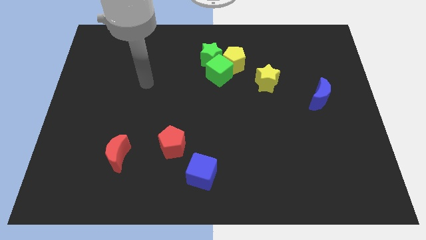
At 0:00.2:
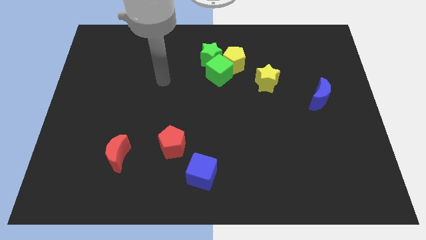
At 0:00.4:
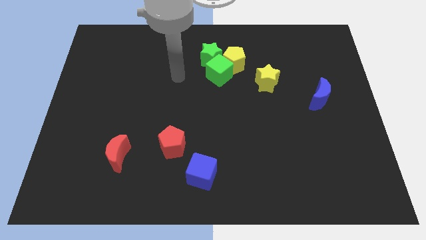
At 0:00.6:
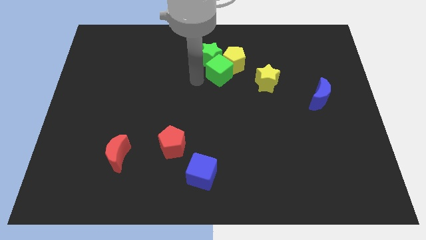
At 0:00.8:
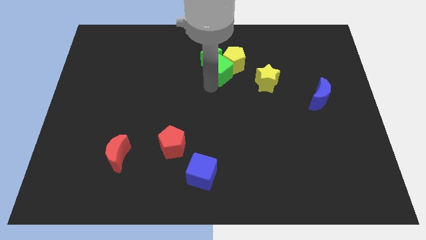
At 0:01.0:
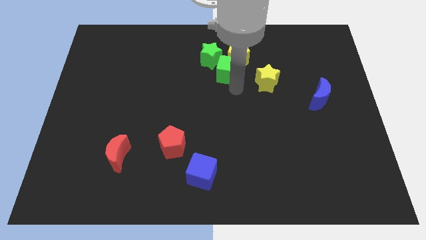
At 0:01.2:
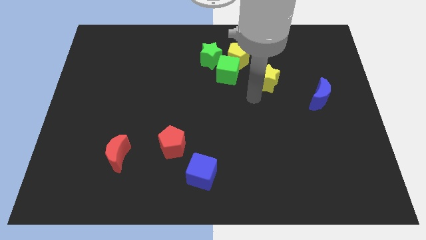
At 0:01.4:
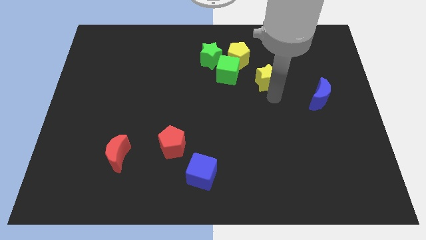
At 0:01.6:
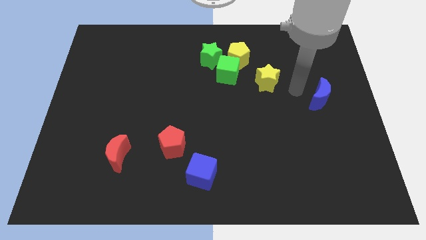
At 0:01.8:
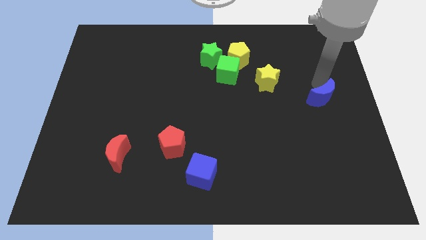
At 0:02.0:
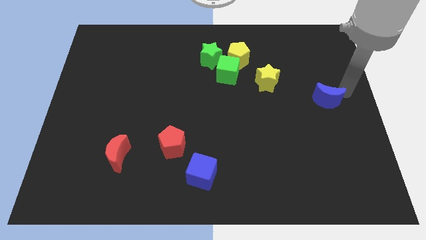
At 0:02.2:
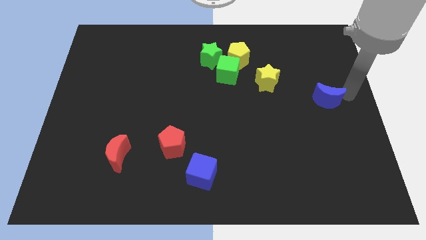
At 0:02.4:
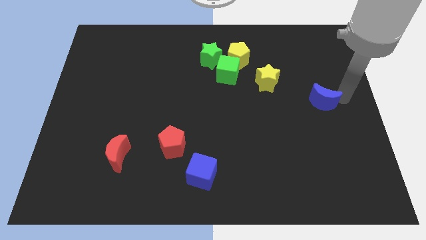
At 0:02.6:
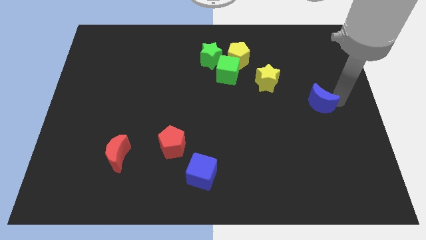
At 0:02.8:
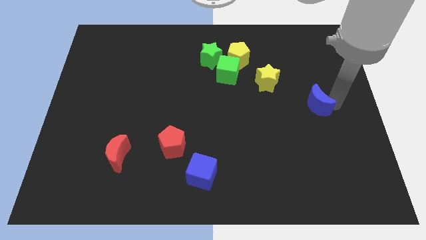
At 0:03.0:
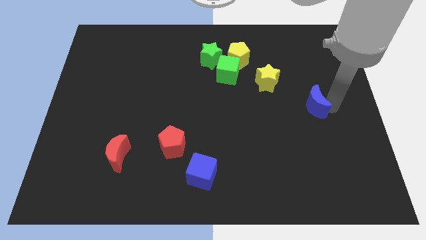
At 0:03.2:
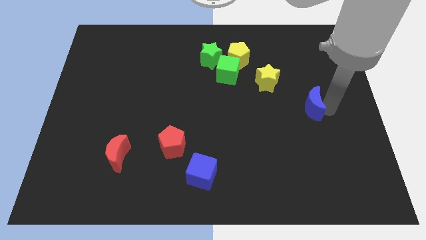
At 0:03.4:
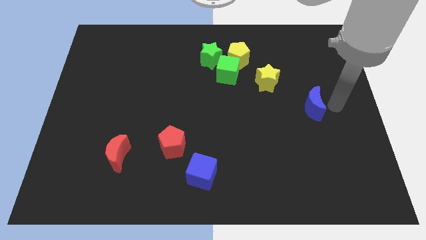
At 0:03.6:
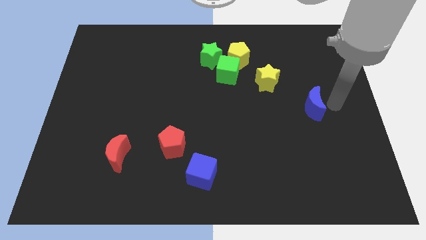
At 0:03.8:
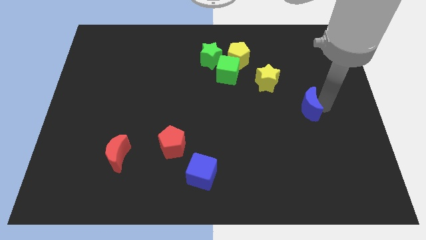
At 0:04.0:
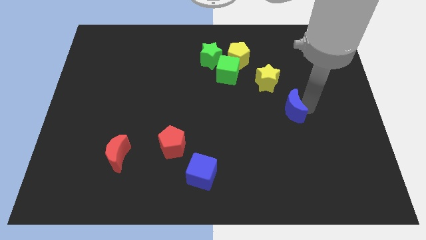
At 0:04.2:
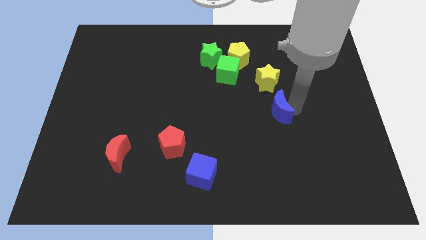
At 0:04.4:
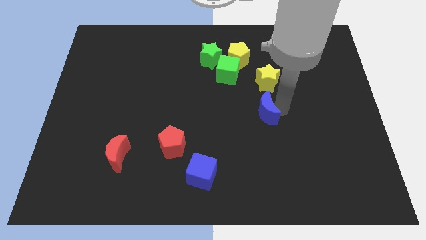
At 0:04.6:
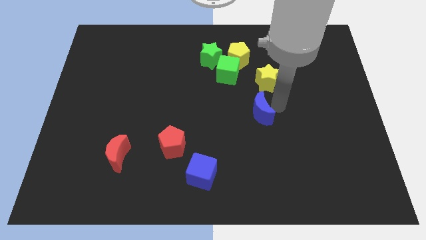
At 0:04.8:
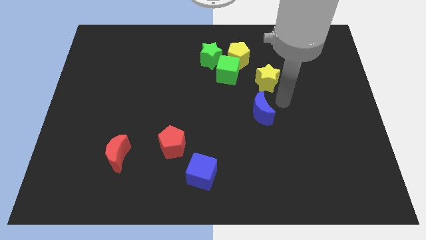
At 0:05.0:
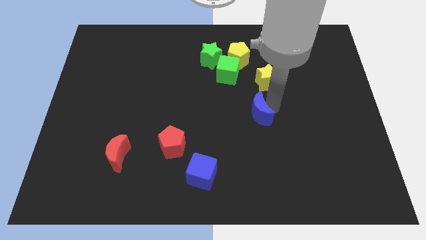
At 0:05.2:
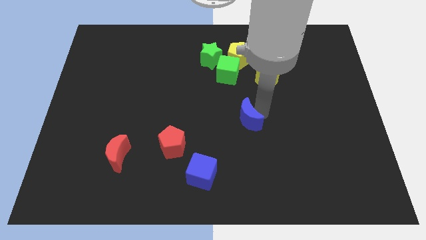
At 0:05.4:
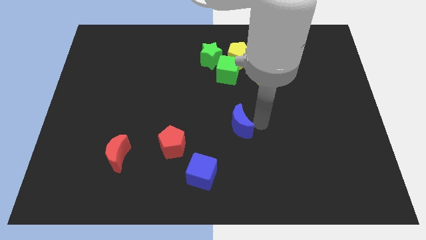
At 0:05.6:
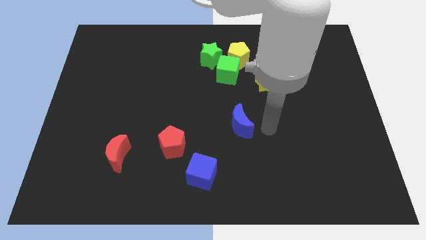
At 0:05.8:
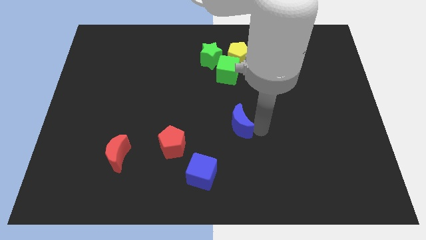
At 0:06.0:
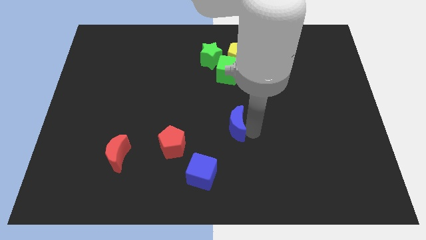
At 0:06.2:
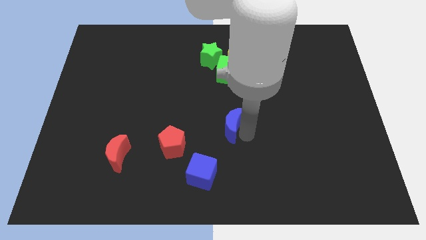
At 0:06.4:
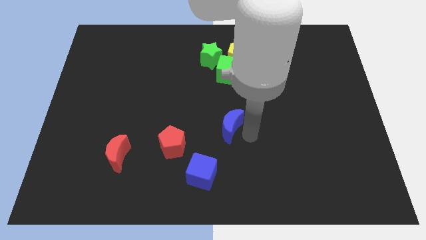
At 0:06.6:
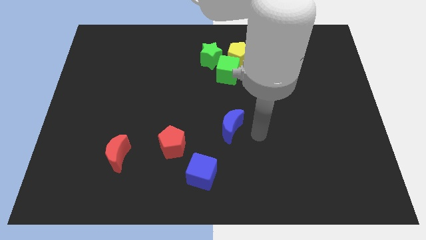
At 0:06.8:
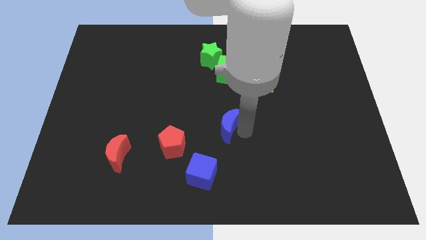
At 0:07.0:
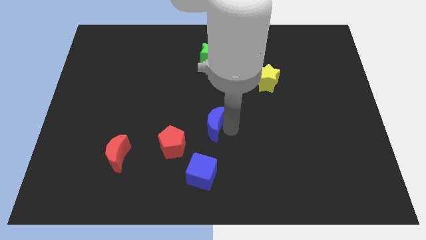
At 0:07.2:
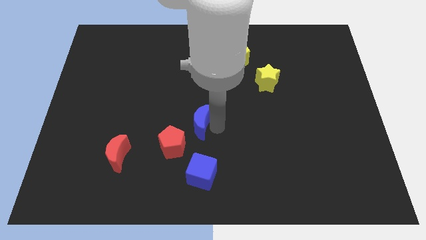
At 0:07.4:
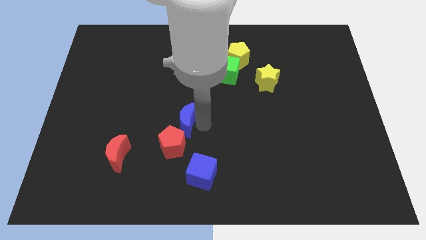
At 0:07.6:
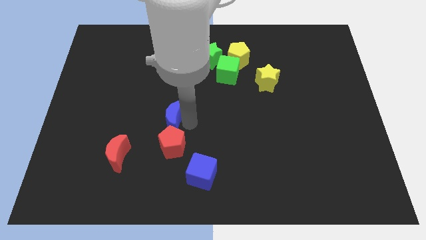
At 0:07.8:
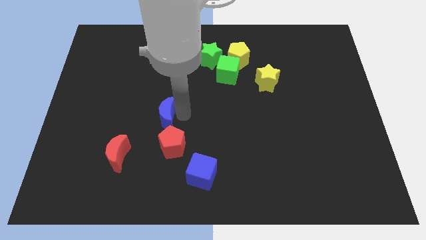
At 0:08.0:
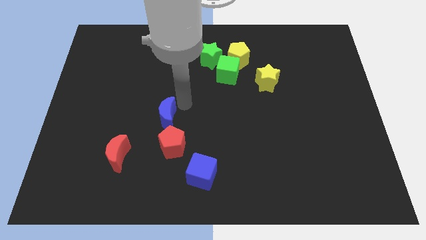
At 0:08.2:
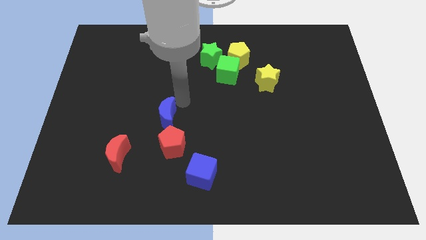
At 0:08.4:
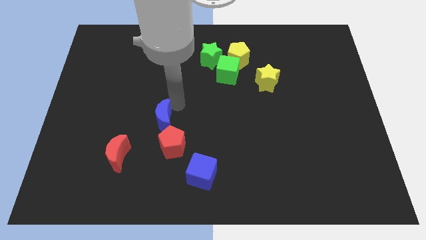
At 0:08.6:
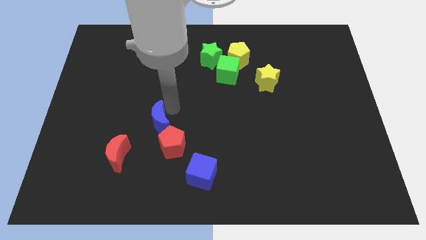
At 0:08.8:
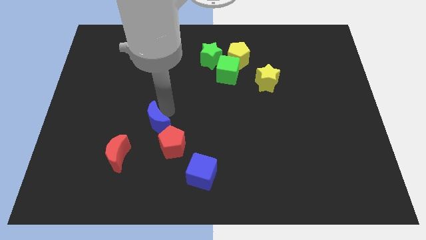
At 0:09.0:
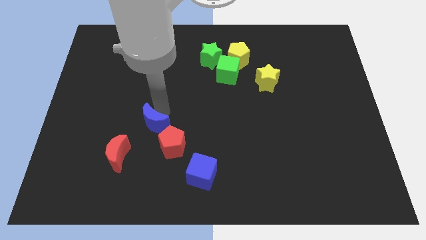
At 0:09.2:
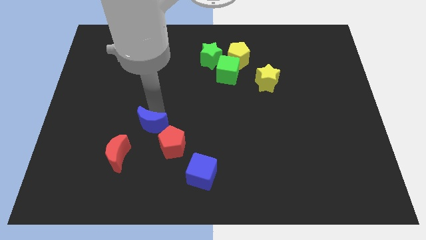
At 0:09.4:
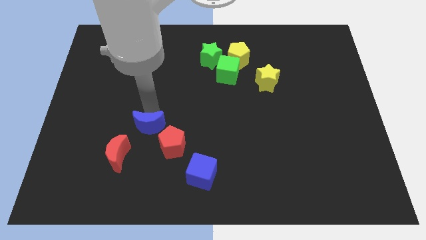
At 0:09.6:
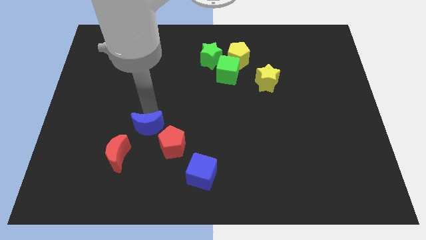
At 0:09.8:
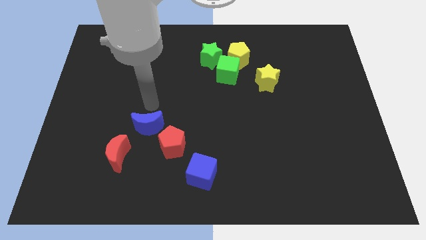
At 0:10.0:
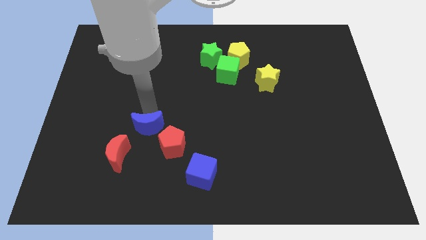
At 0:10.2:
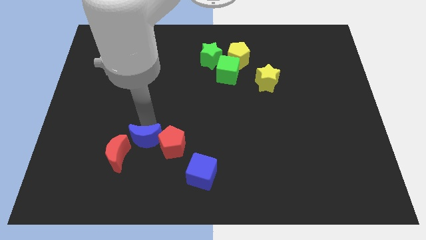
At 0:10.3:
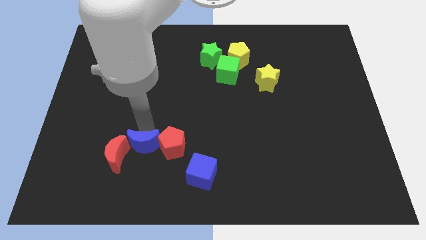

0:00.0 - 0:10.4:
put the blue moon diagonally down and to the left of the red pentagon

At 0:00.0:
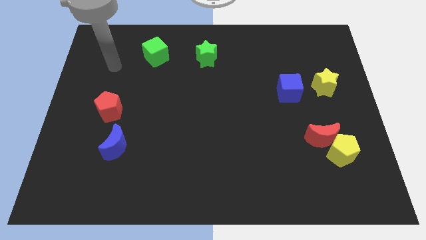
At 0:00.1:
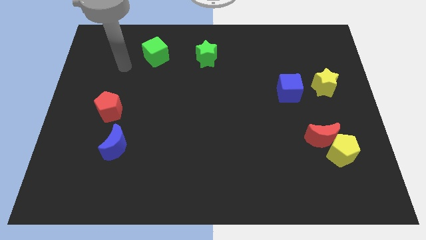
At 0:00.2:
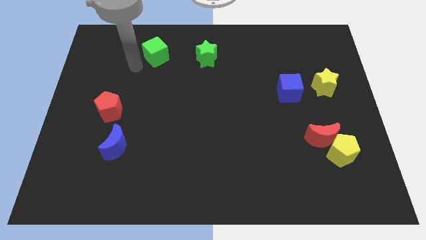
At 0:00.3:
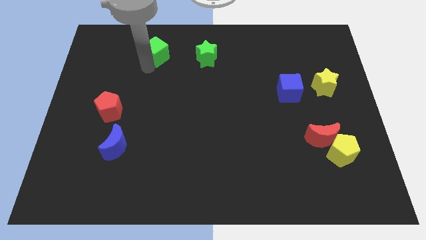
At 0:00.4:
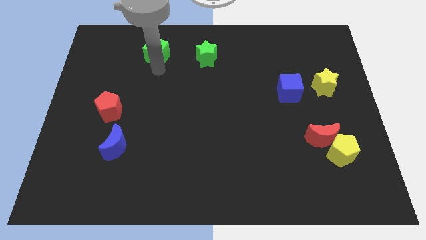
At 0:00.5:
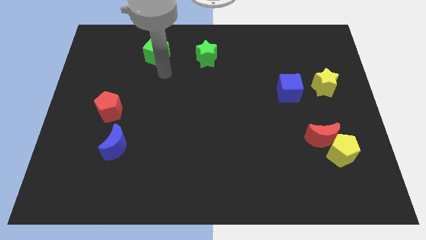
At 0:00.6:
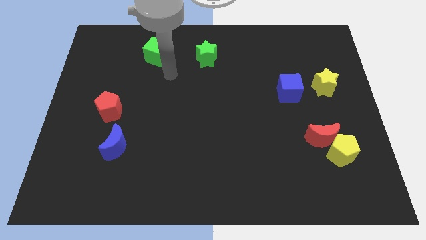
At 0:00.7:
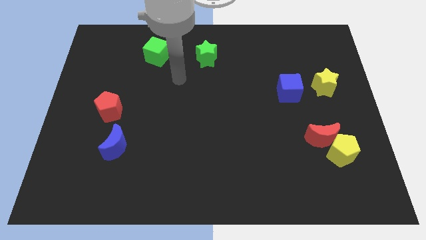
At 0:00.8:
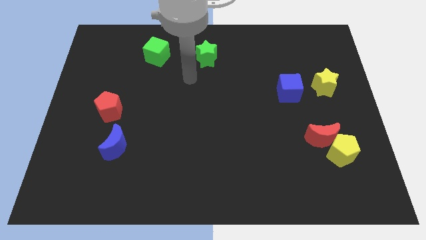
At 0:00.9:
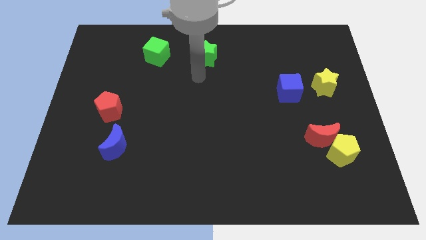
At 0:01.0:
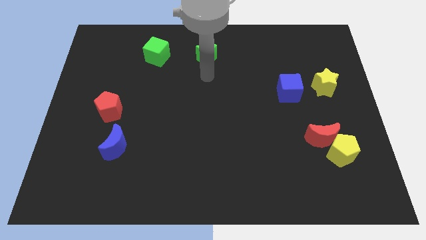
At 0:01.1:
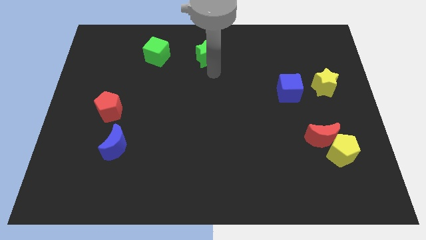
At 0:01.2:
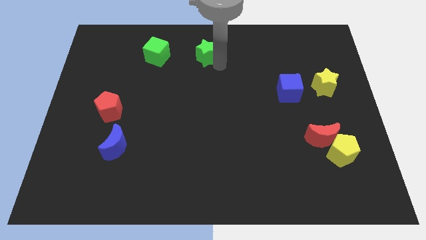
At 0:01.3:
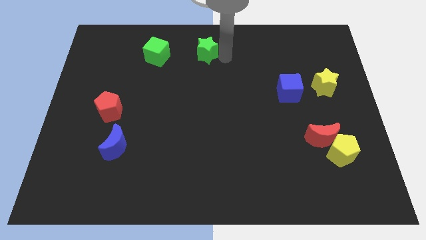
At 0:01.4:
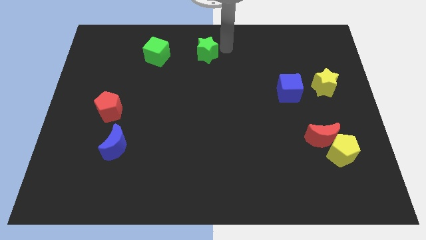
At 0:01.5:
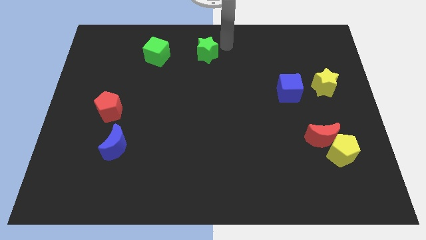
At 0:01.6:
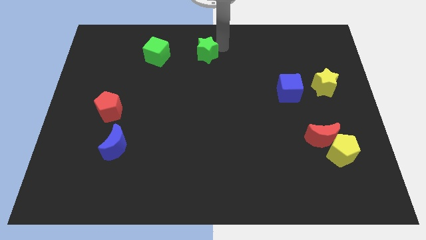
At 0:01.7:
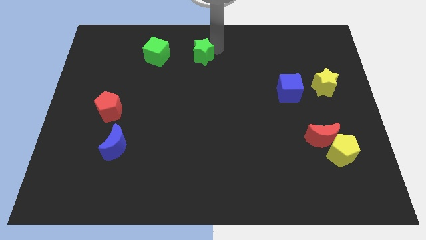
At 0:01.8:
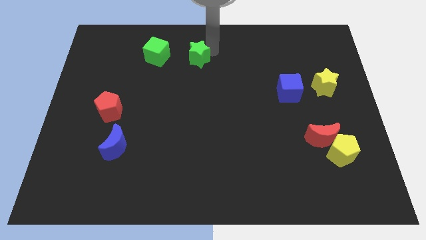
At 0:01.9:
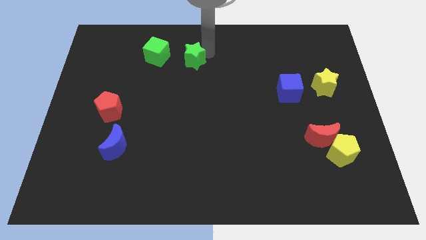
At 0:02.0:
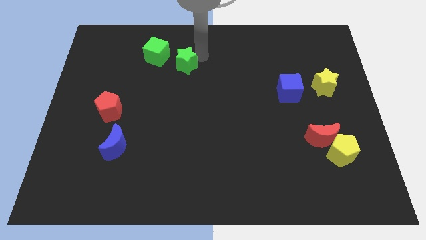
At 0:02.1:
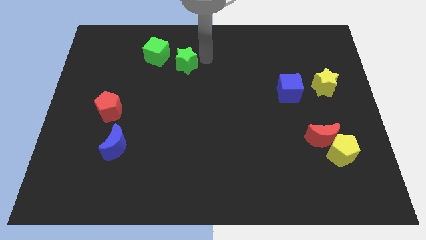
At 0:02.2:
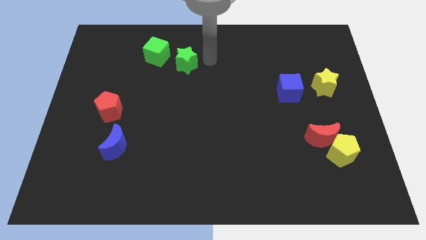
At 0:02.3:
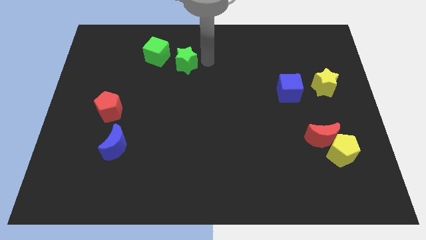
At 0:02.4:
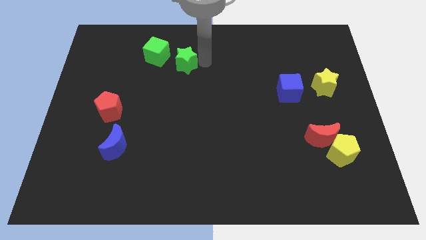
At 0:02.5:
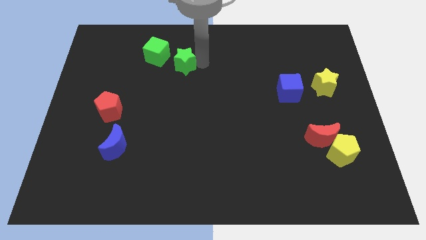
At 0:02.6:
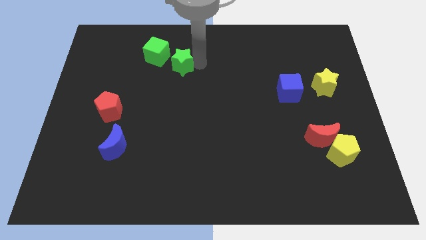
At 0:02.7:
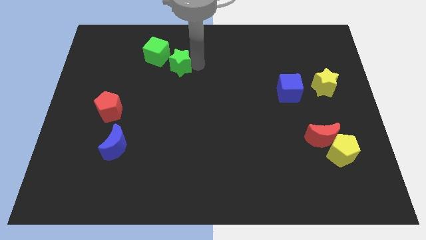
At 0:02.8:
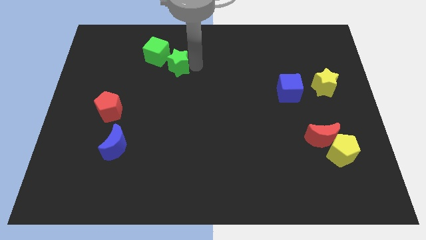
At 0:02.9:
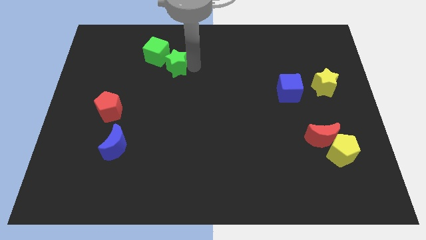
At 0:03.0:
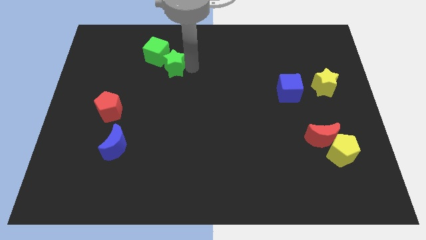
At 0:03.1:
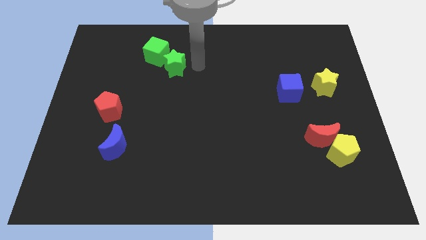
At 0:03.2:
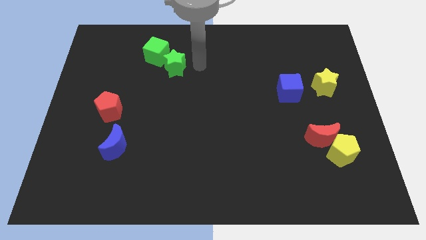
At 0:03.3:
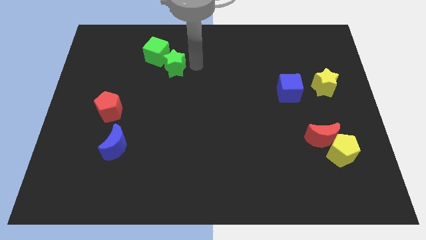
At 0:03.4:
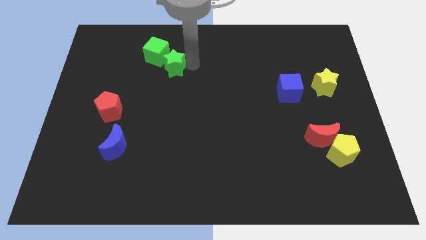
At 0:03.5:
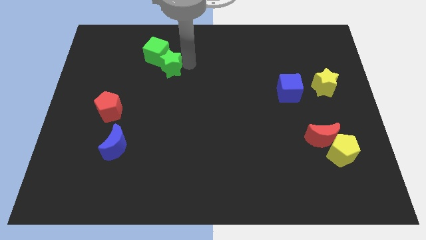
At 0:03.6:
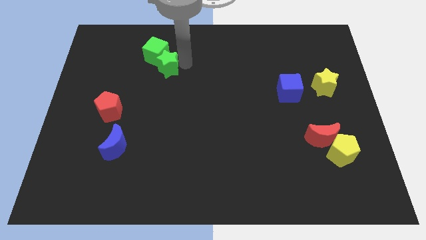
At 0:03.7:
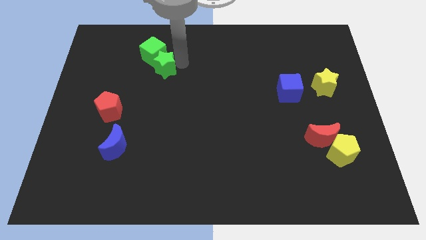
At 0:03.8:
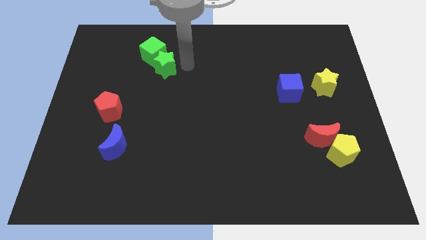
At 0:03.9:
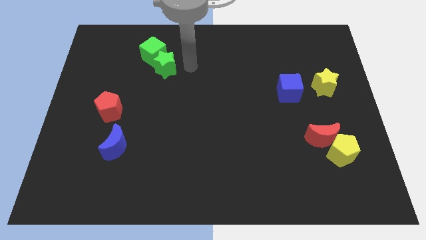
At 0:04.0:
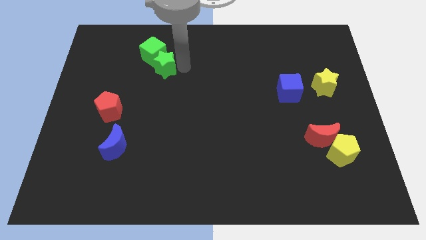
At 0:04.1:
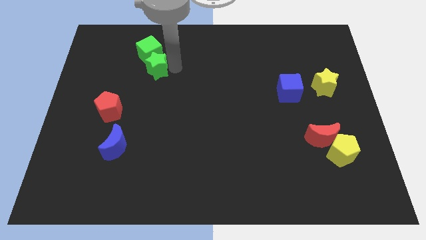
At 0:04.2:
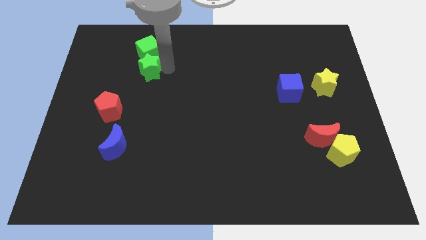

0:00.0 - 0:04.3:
put the green star diagonally down and to the left of the green cube
